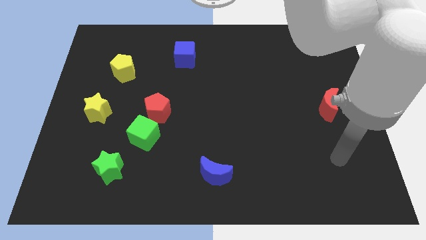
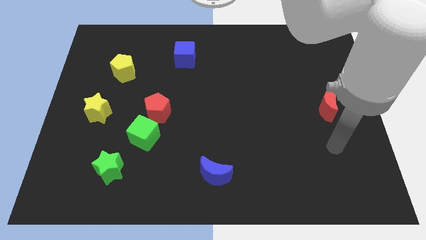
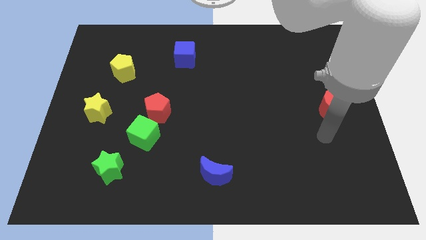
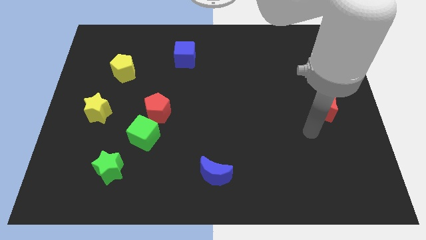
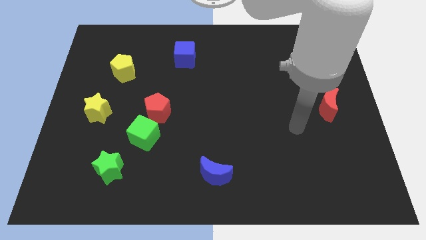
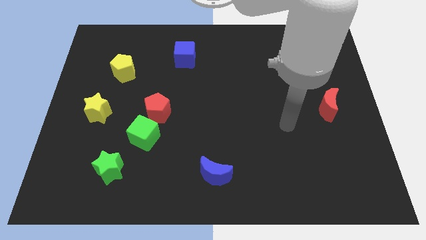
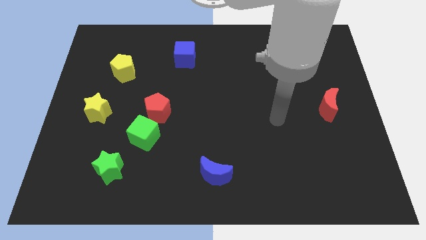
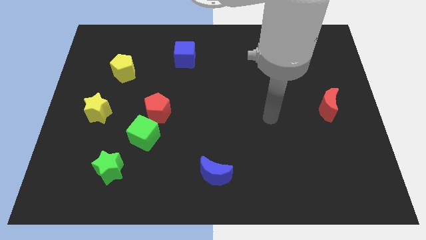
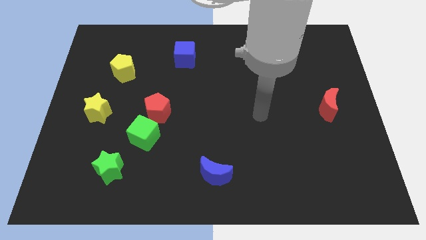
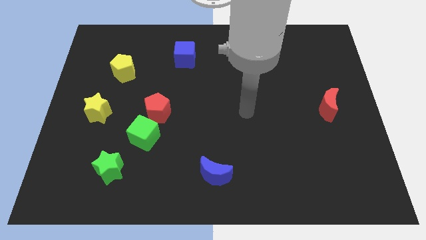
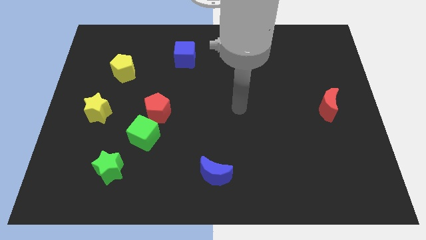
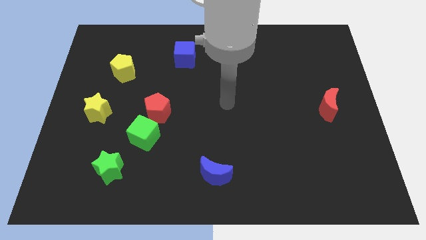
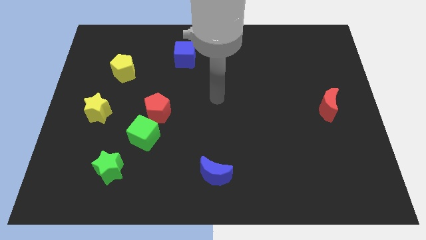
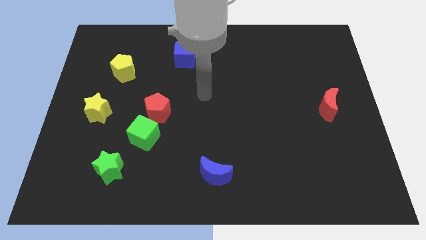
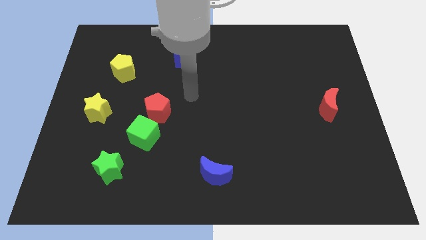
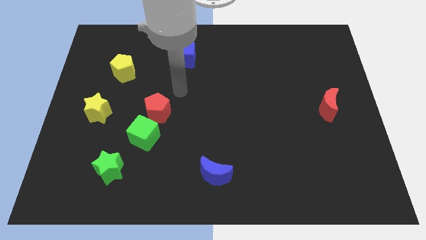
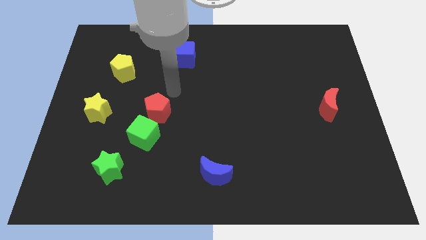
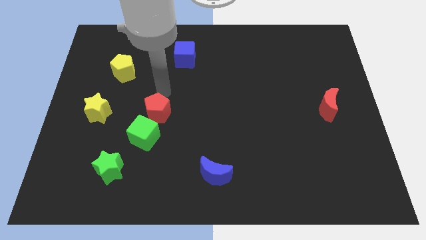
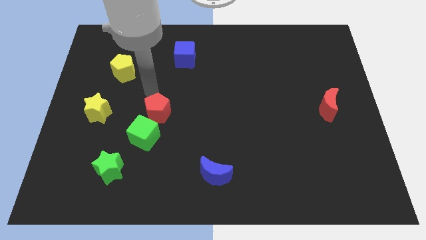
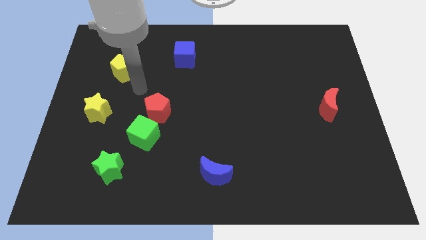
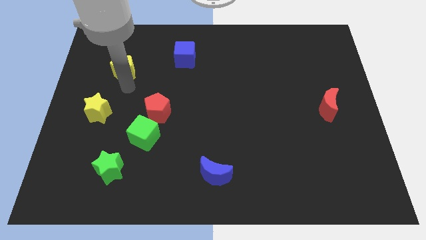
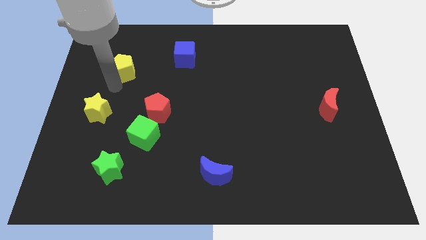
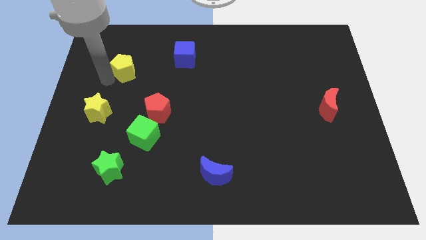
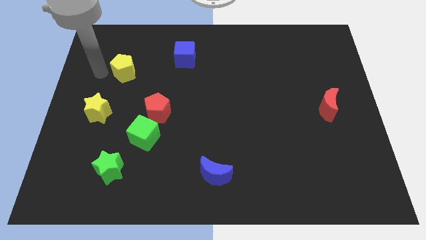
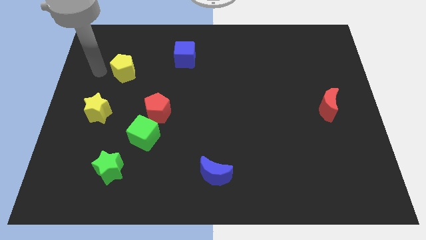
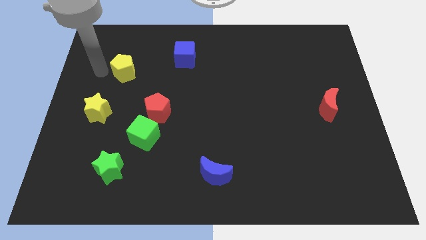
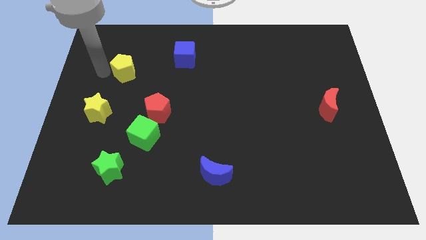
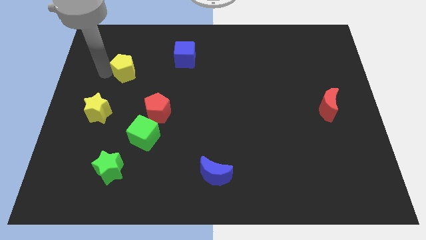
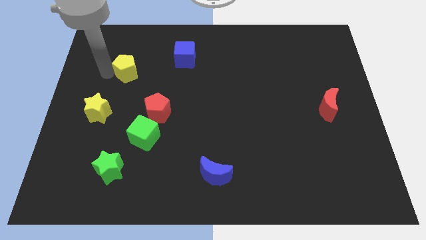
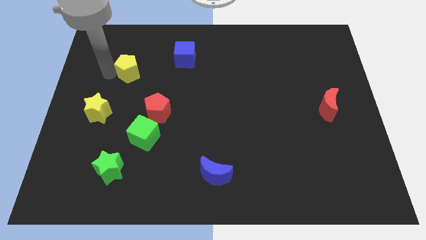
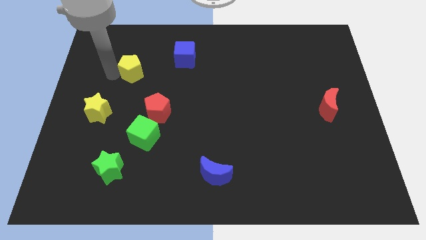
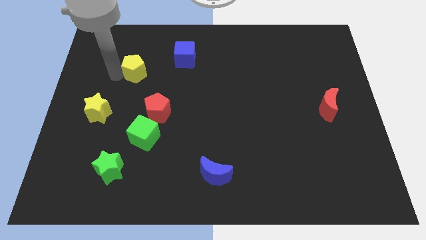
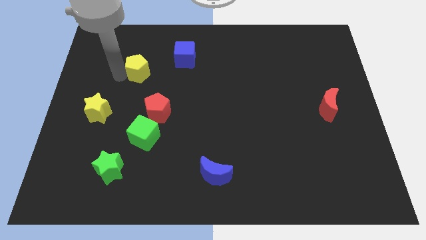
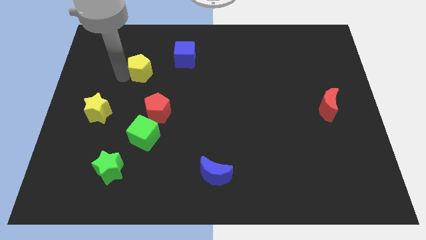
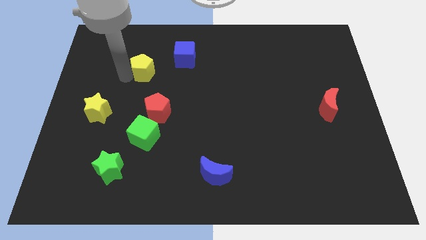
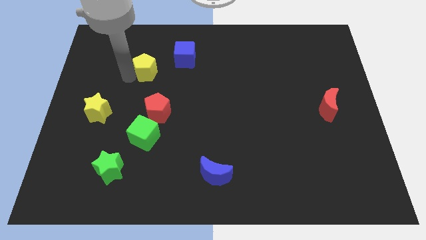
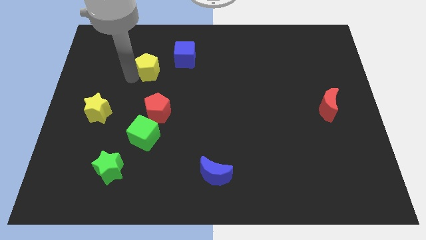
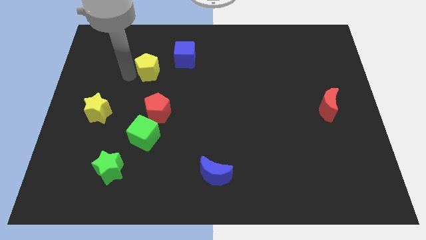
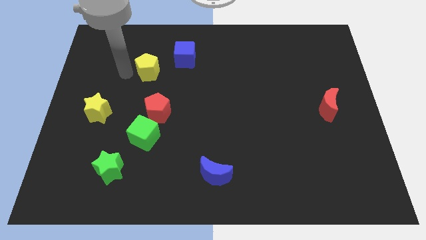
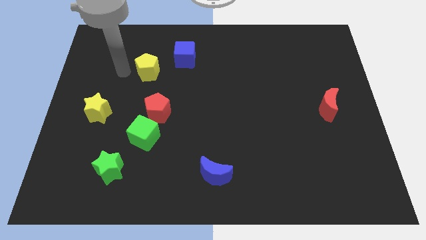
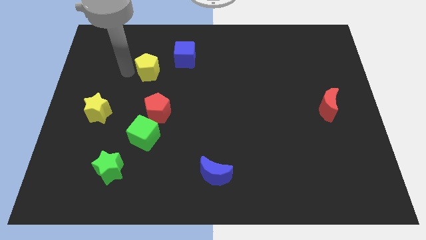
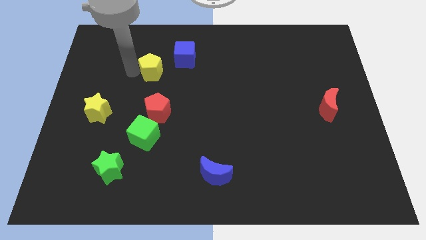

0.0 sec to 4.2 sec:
move the yellow pentagon a little right

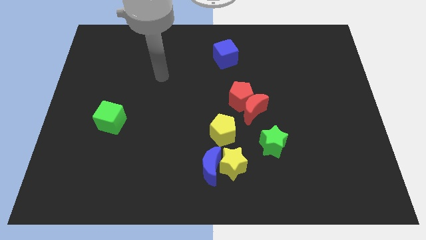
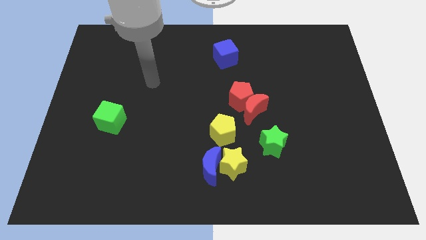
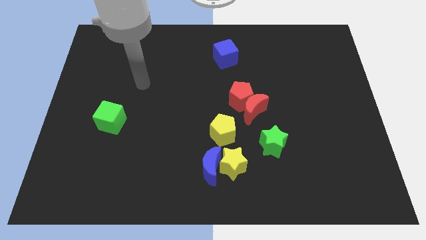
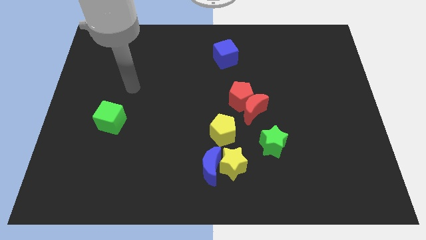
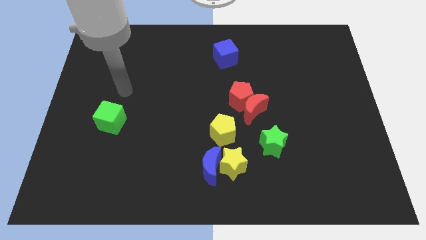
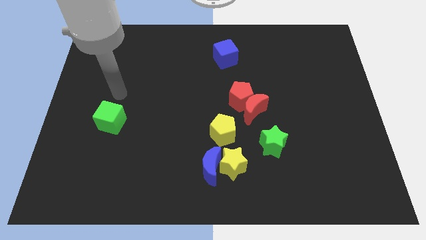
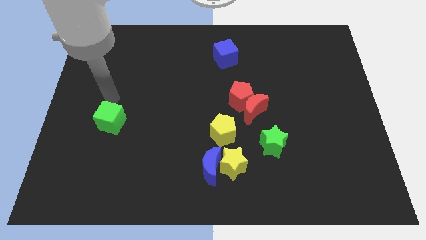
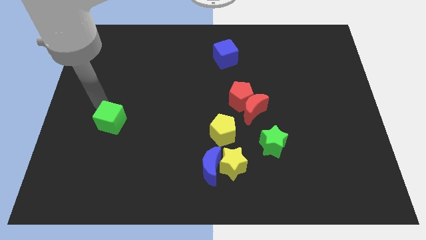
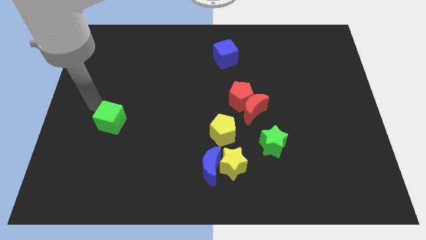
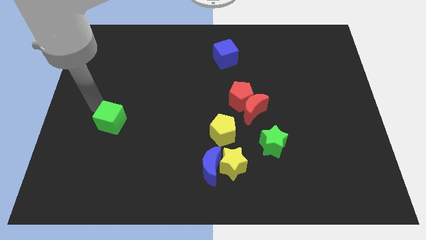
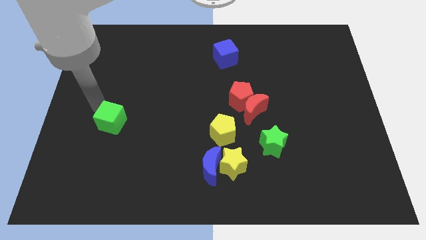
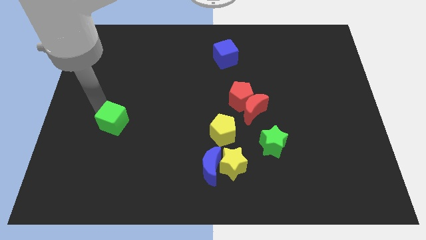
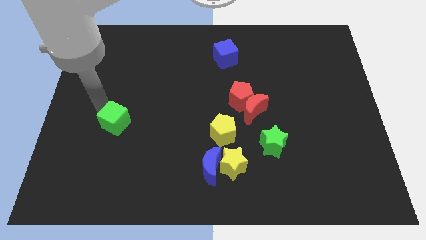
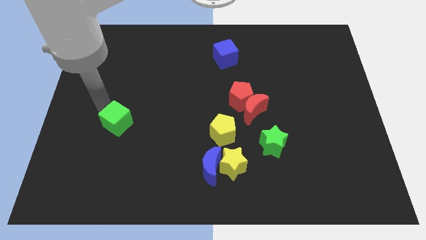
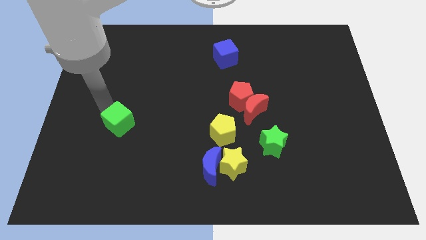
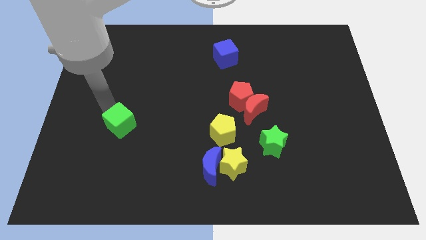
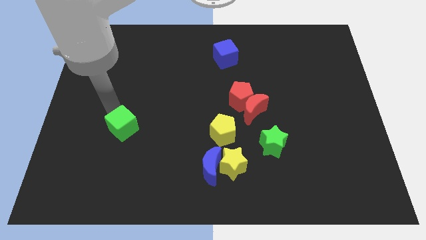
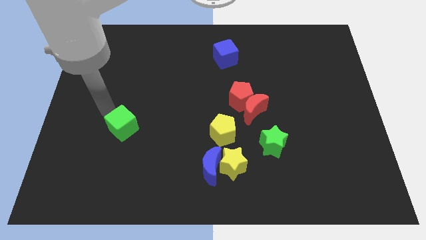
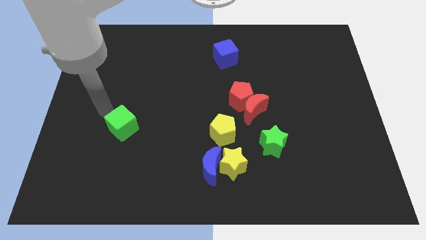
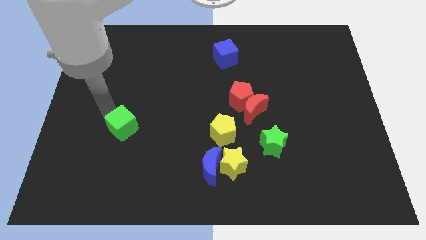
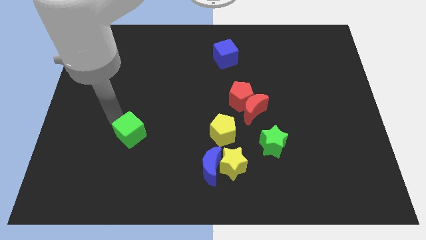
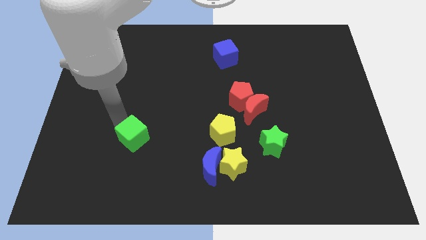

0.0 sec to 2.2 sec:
move the green cube downwards and right a little

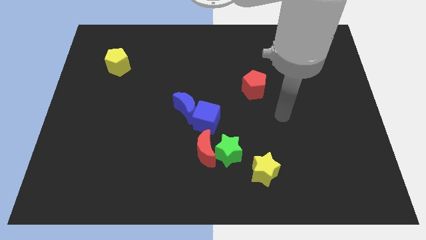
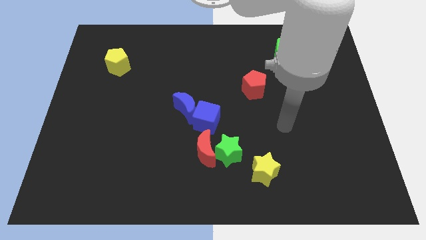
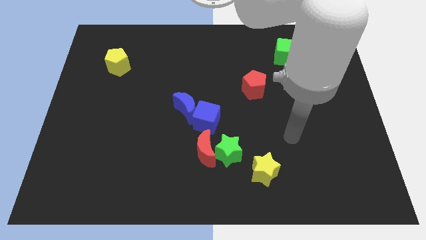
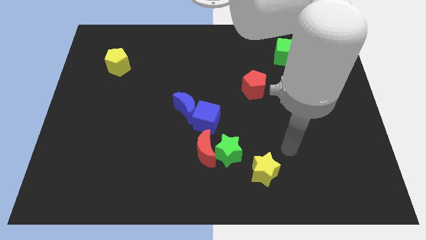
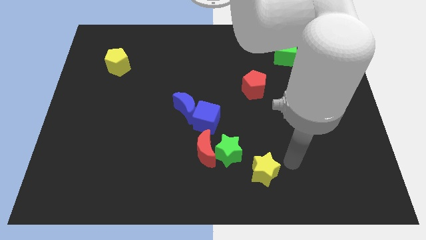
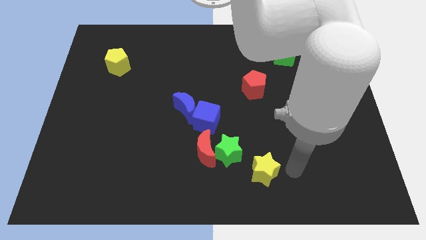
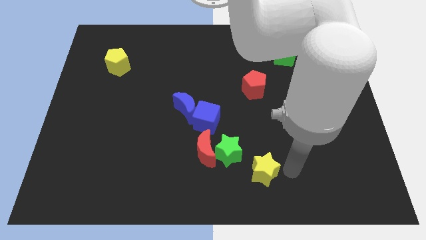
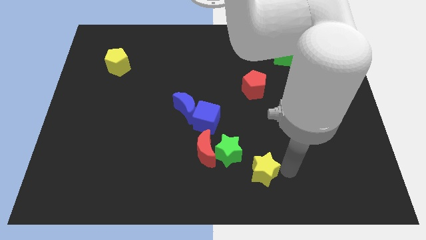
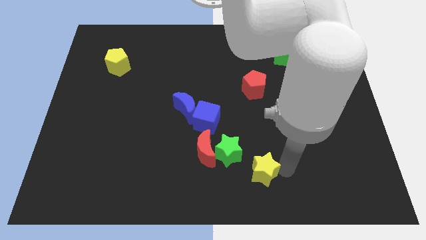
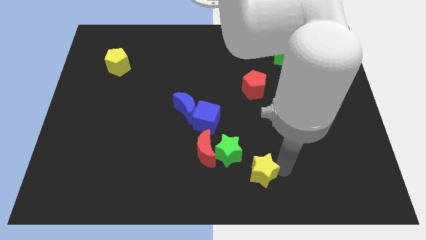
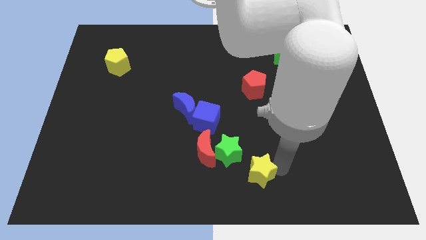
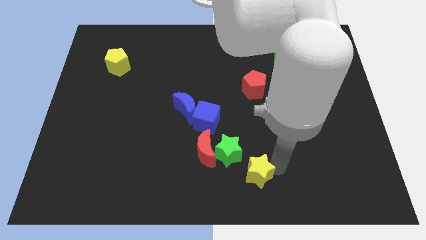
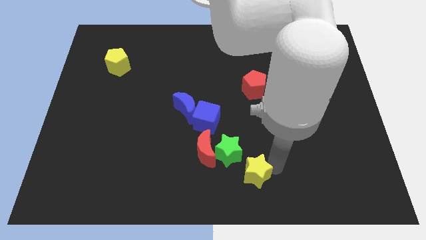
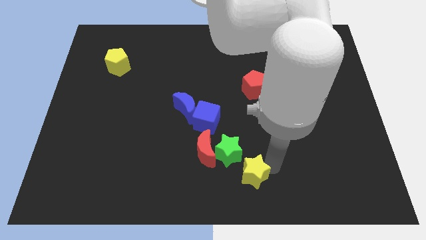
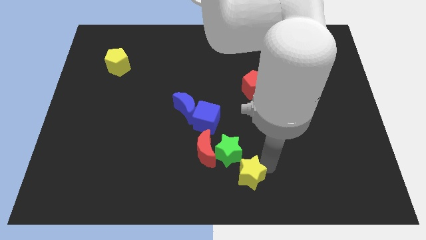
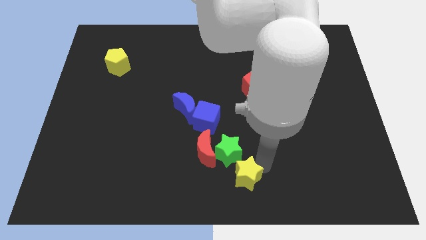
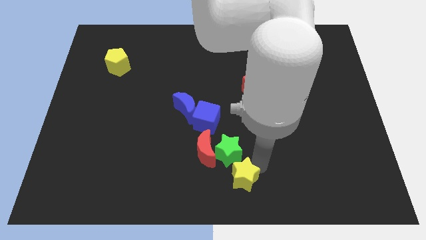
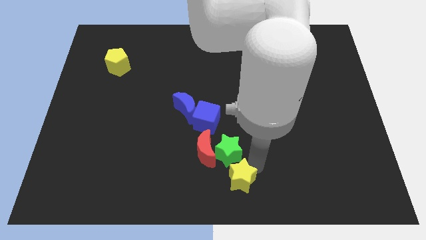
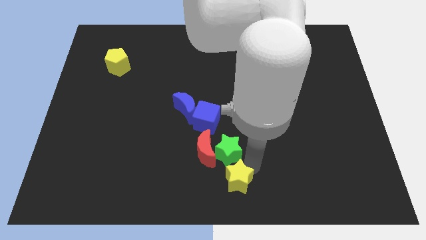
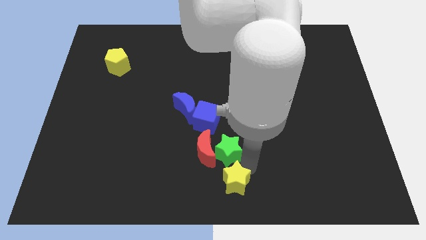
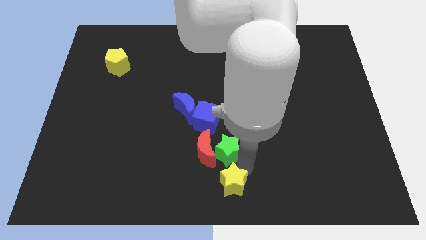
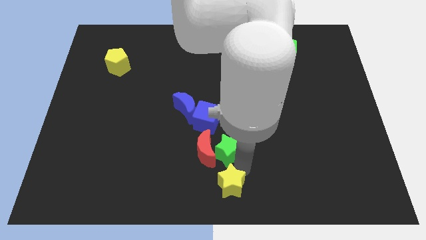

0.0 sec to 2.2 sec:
slightly push the yellow star left
